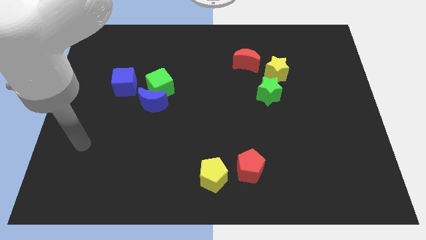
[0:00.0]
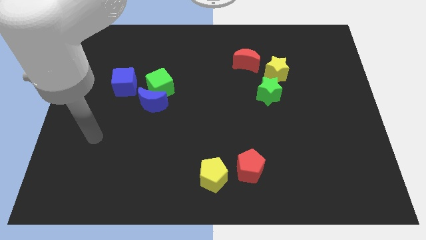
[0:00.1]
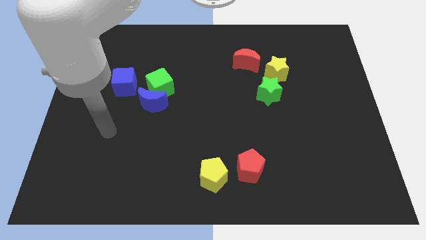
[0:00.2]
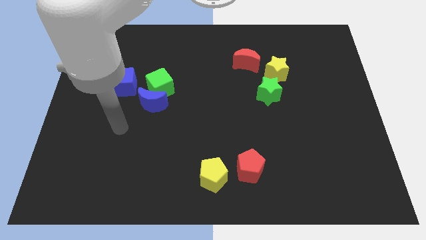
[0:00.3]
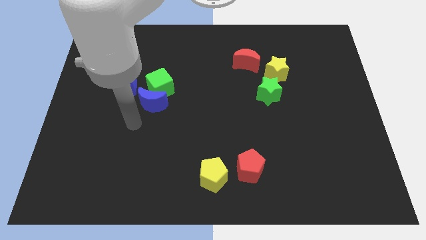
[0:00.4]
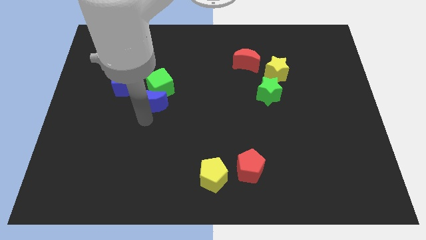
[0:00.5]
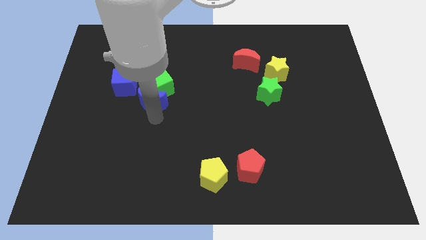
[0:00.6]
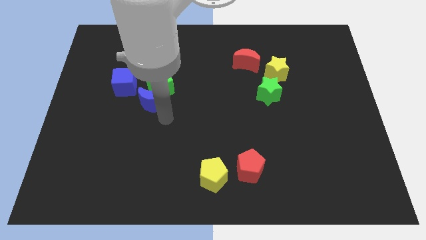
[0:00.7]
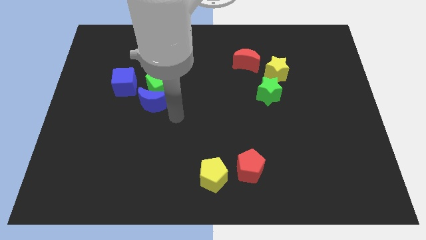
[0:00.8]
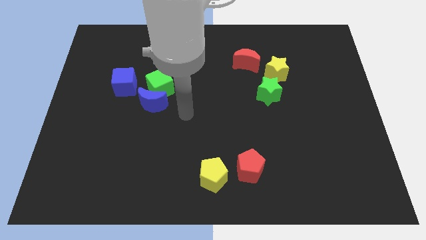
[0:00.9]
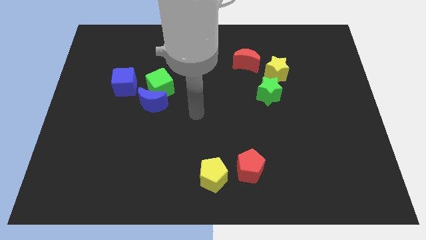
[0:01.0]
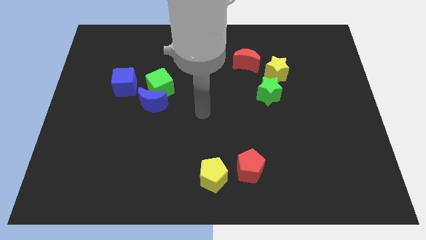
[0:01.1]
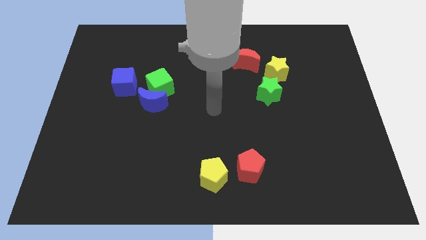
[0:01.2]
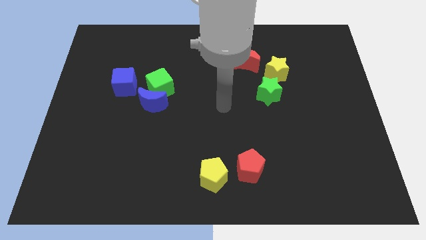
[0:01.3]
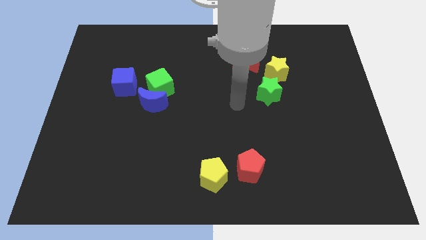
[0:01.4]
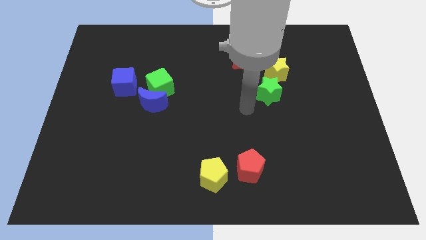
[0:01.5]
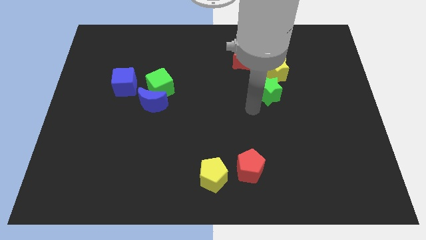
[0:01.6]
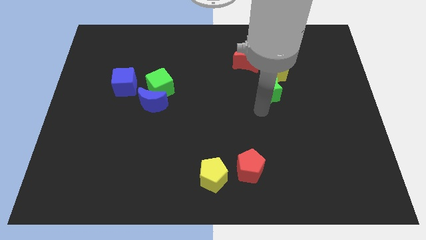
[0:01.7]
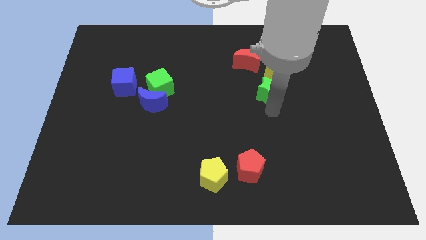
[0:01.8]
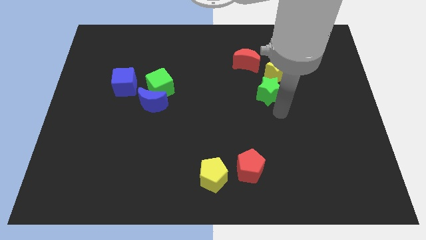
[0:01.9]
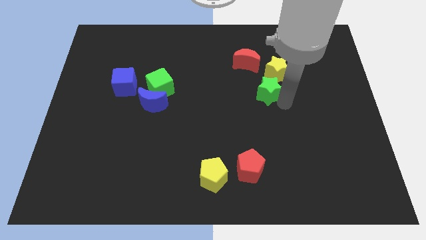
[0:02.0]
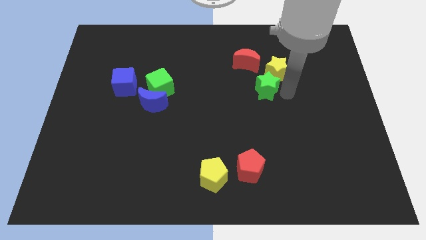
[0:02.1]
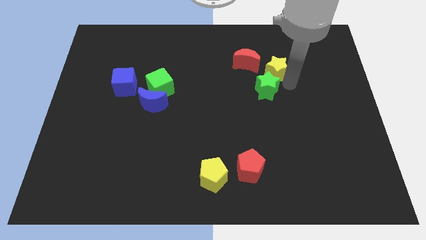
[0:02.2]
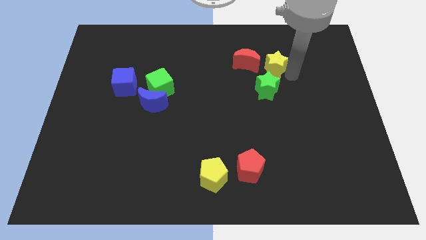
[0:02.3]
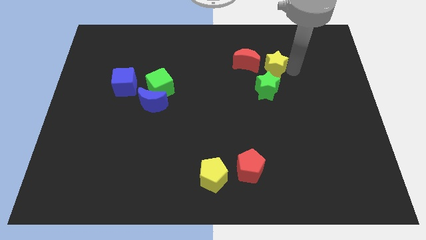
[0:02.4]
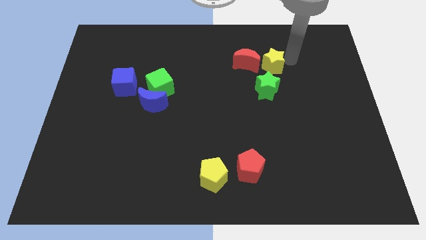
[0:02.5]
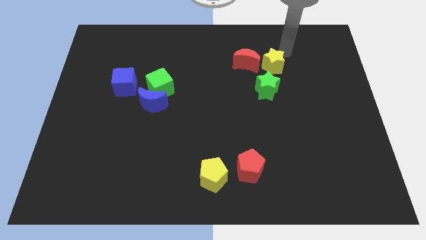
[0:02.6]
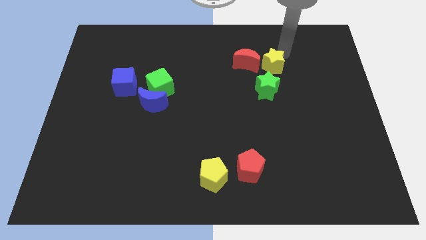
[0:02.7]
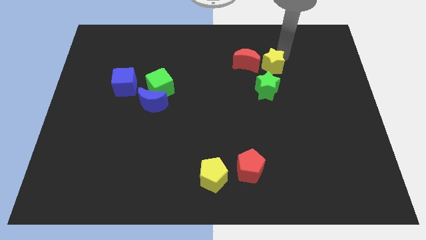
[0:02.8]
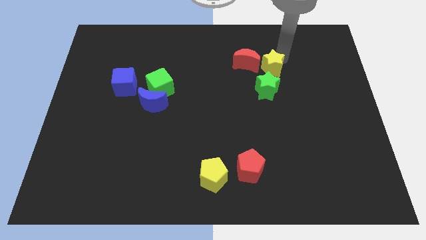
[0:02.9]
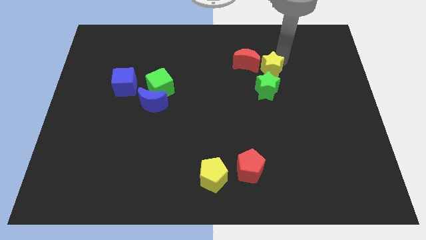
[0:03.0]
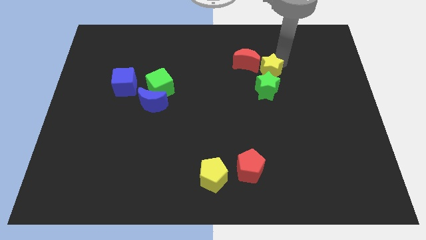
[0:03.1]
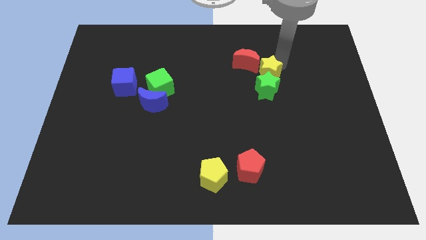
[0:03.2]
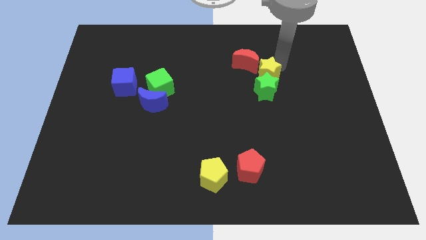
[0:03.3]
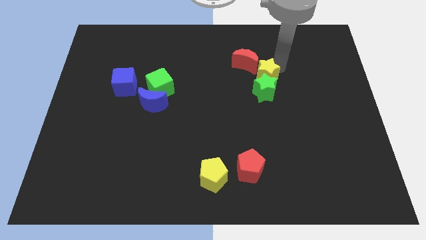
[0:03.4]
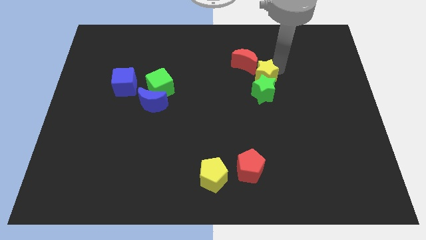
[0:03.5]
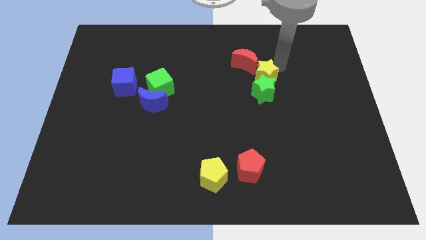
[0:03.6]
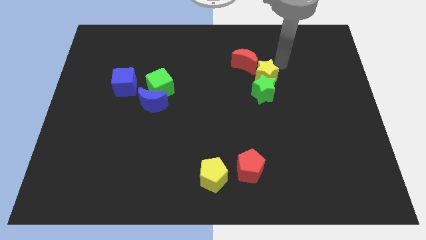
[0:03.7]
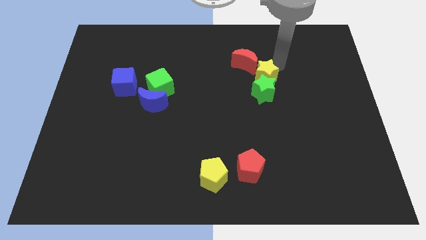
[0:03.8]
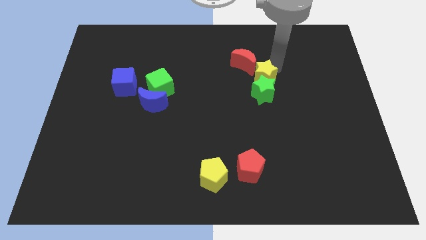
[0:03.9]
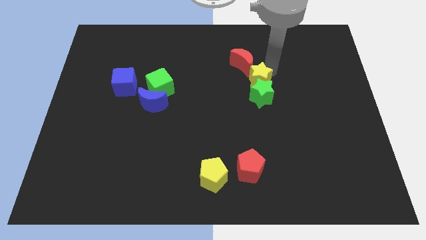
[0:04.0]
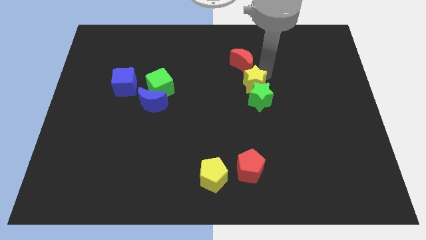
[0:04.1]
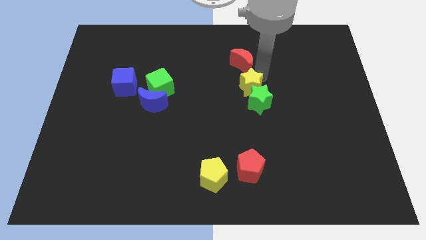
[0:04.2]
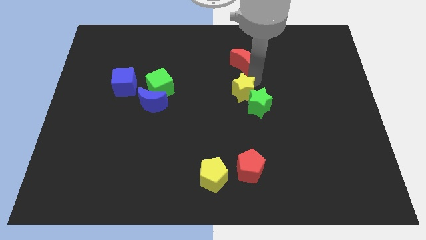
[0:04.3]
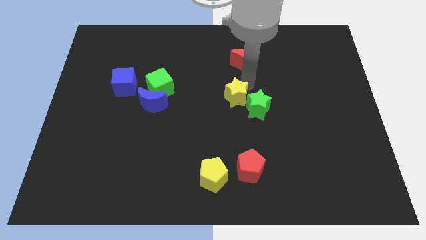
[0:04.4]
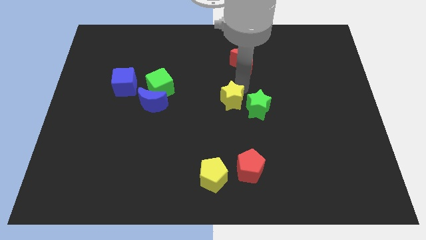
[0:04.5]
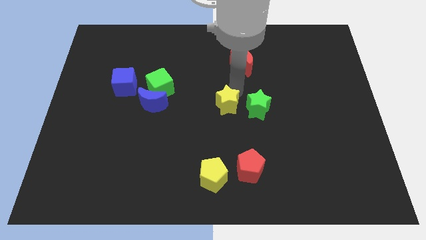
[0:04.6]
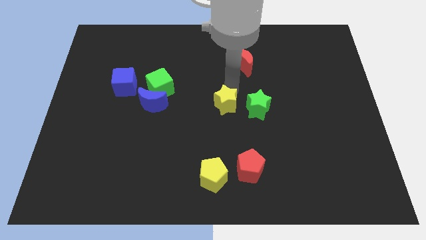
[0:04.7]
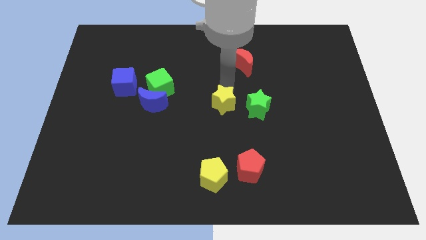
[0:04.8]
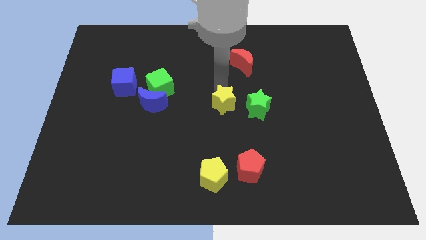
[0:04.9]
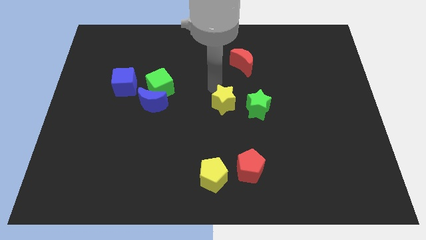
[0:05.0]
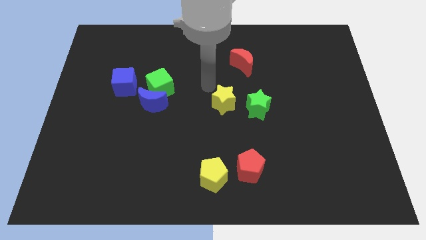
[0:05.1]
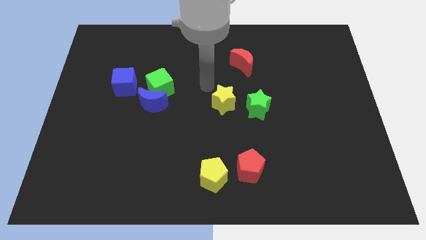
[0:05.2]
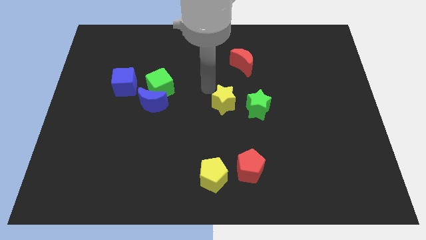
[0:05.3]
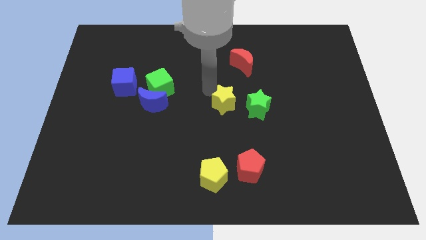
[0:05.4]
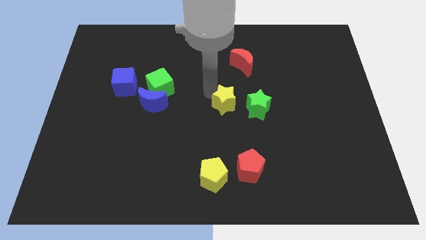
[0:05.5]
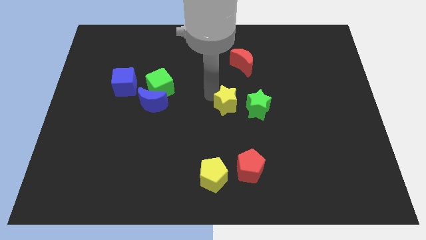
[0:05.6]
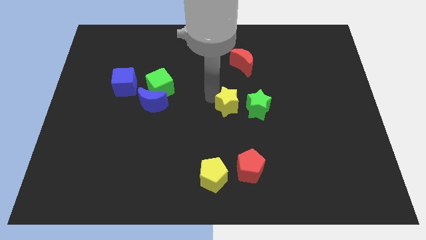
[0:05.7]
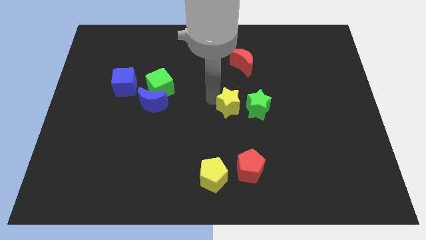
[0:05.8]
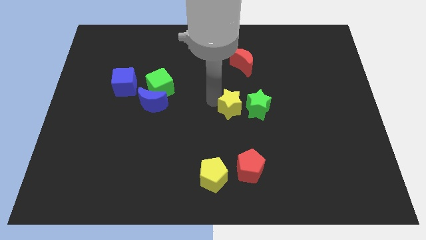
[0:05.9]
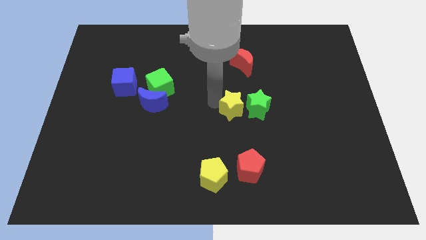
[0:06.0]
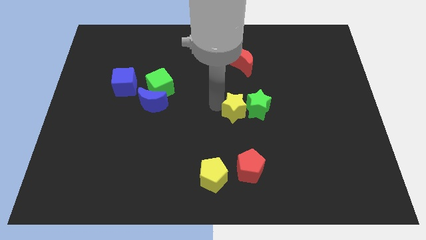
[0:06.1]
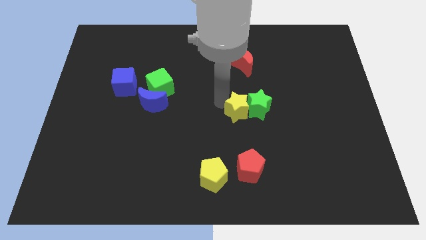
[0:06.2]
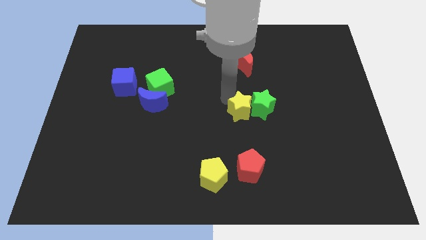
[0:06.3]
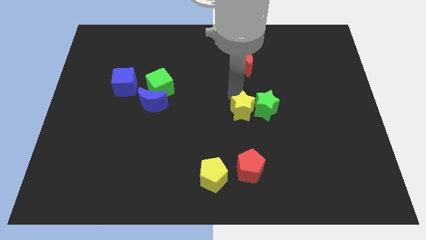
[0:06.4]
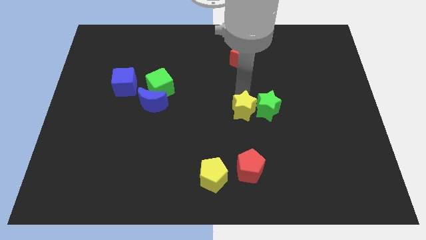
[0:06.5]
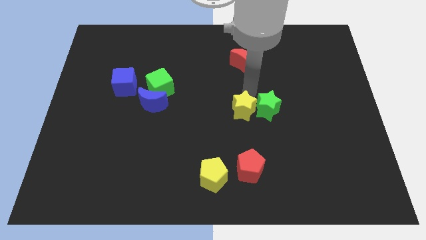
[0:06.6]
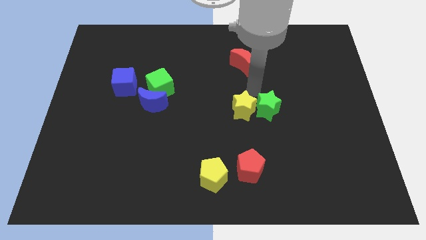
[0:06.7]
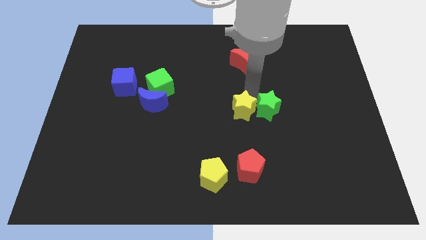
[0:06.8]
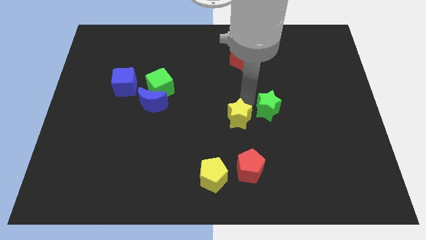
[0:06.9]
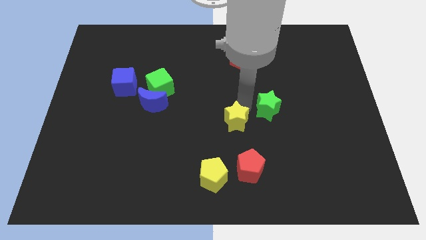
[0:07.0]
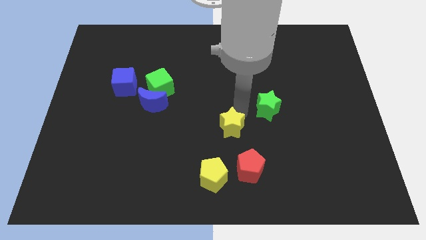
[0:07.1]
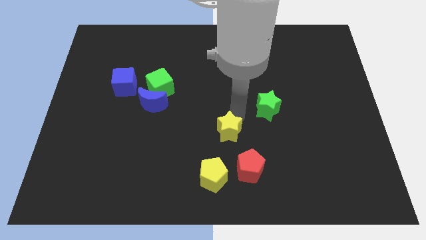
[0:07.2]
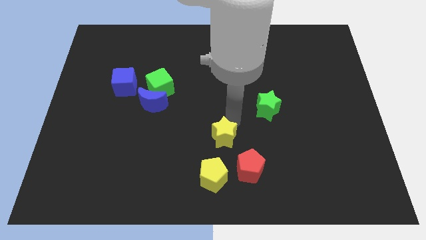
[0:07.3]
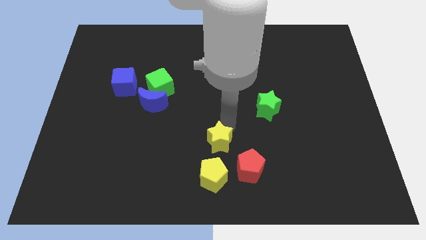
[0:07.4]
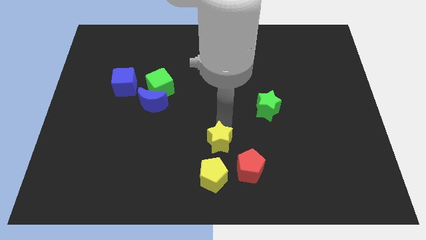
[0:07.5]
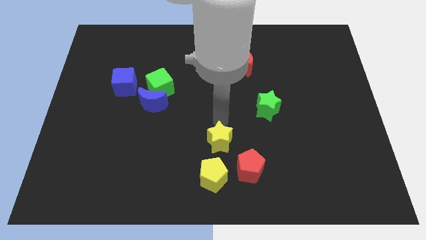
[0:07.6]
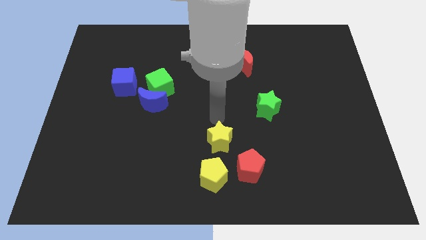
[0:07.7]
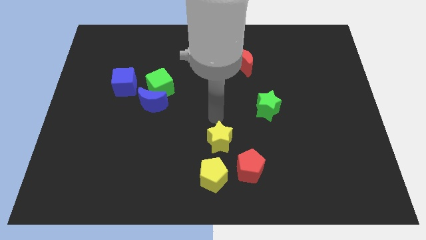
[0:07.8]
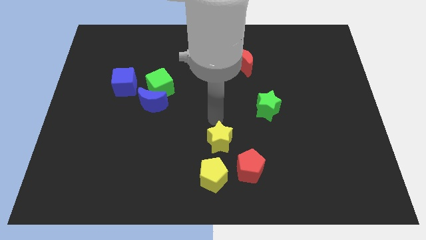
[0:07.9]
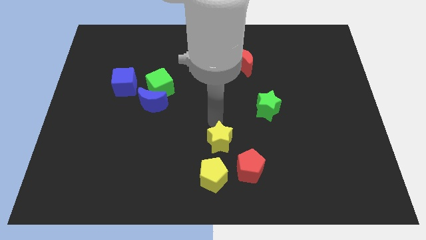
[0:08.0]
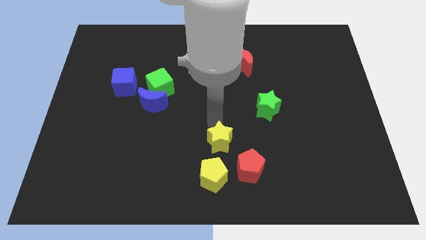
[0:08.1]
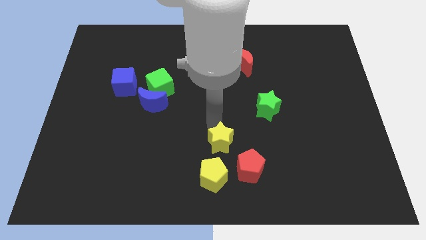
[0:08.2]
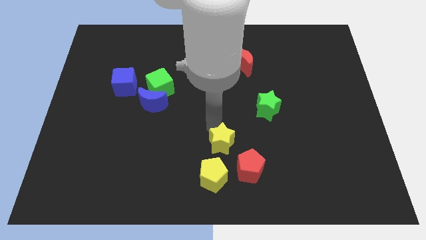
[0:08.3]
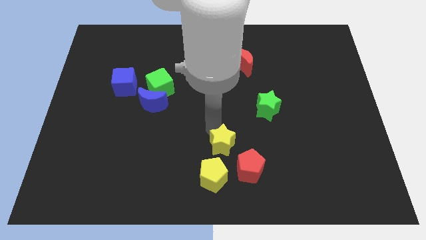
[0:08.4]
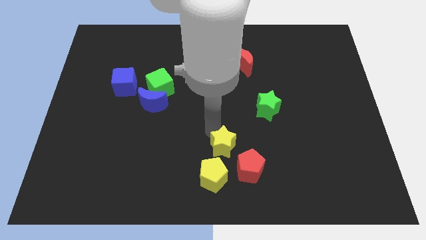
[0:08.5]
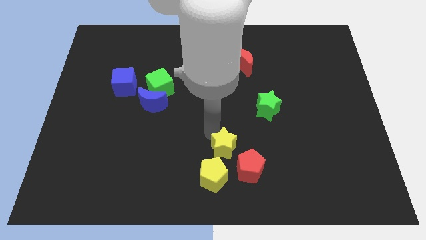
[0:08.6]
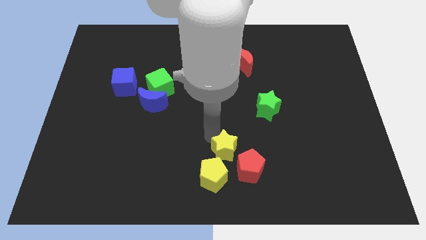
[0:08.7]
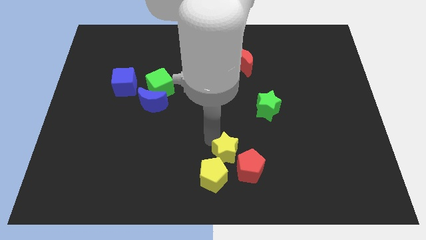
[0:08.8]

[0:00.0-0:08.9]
slide the yellow star close to the yellow pentagon
